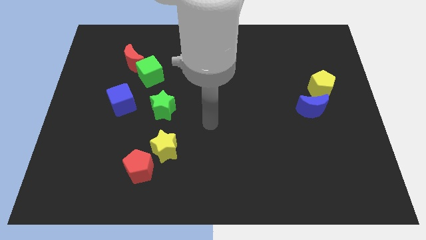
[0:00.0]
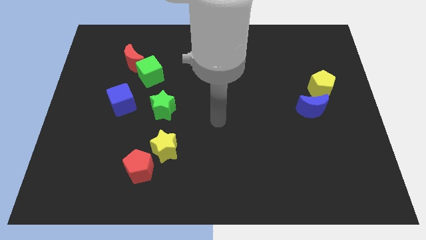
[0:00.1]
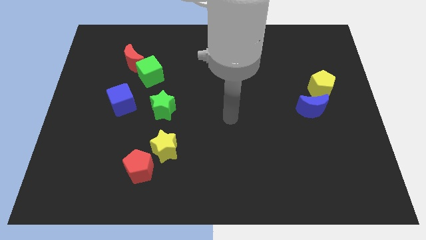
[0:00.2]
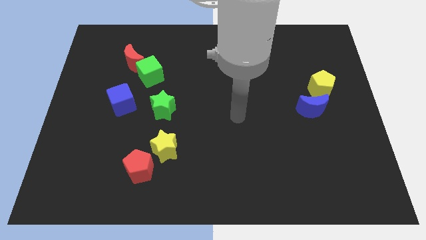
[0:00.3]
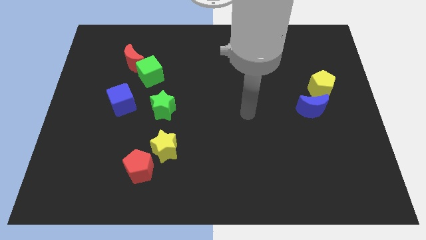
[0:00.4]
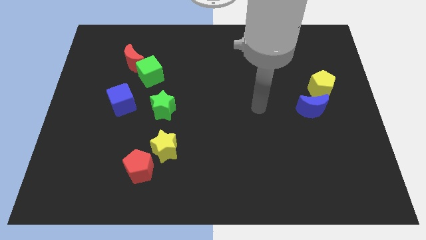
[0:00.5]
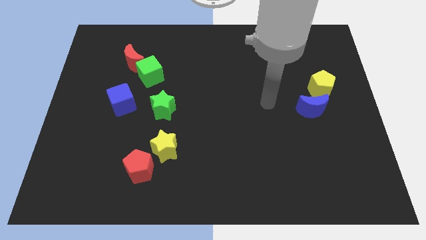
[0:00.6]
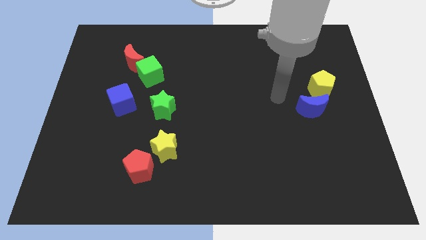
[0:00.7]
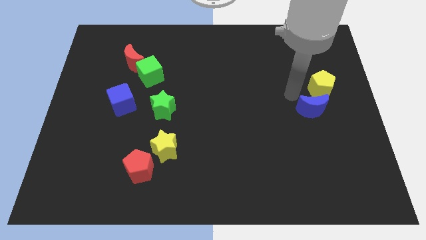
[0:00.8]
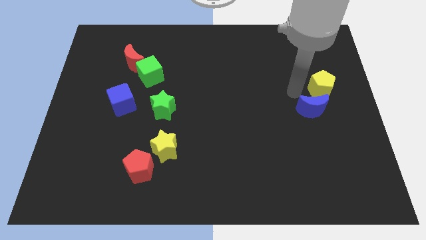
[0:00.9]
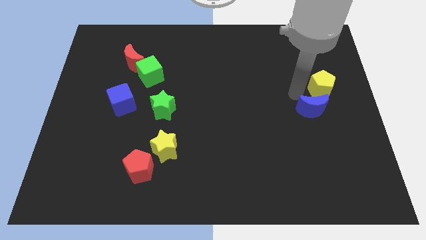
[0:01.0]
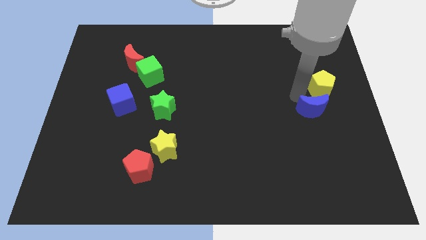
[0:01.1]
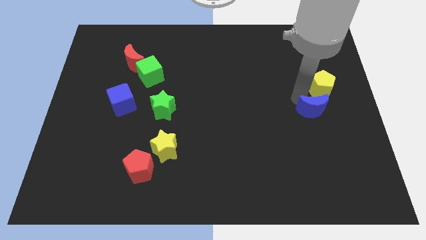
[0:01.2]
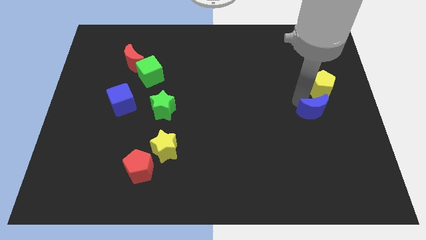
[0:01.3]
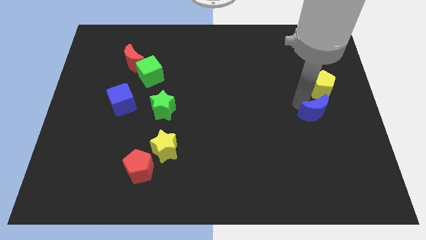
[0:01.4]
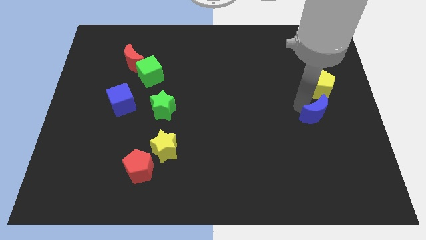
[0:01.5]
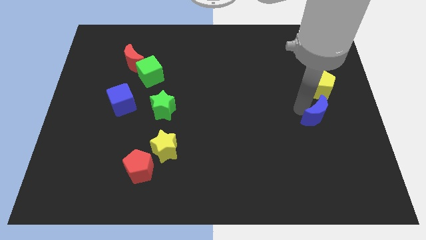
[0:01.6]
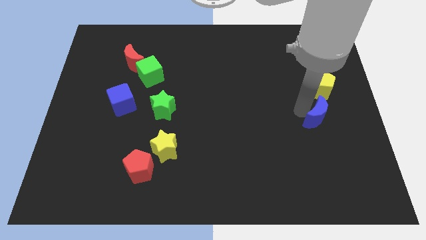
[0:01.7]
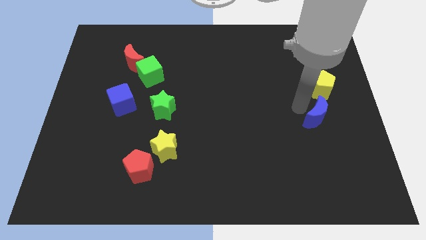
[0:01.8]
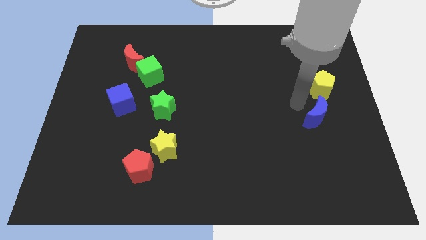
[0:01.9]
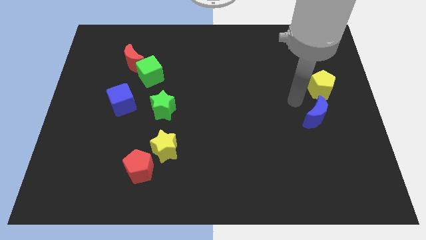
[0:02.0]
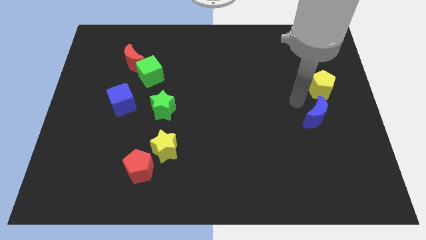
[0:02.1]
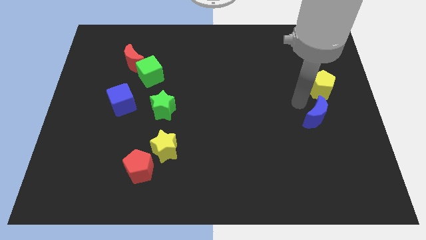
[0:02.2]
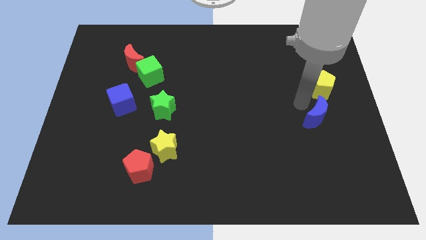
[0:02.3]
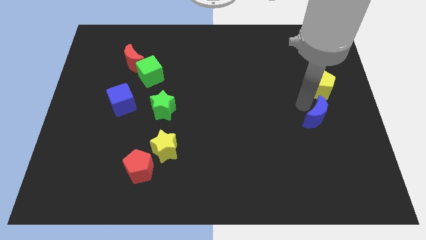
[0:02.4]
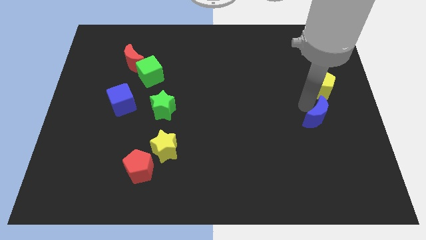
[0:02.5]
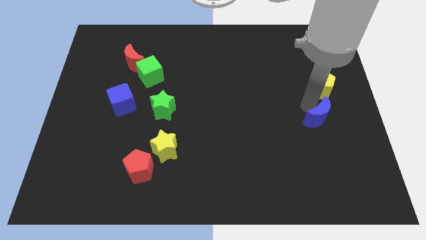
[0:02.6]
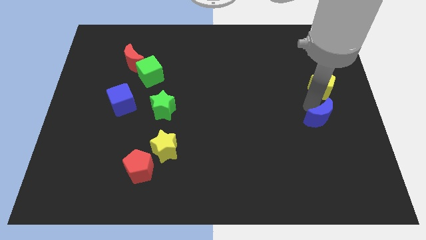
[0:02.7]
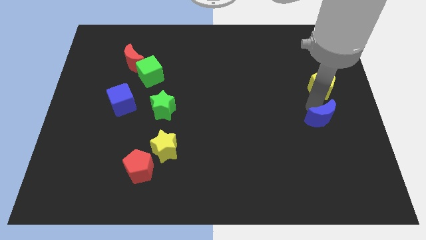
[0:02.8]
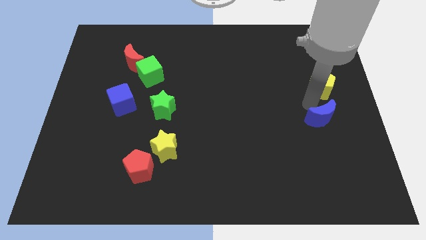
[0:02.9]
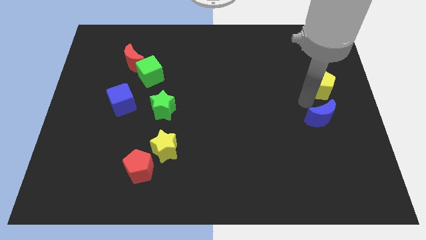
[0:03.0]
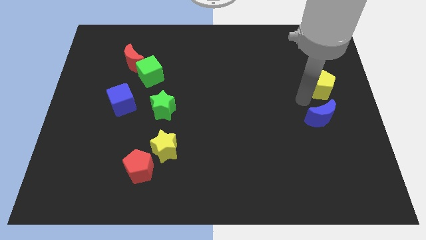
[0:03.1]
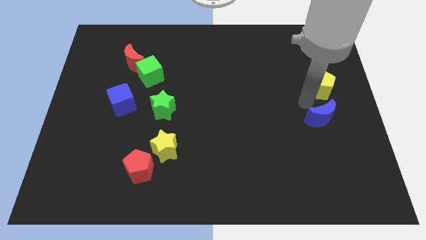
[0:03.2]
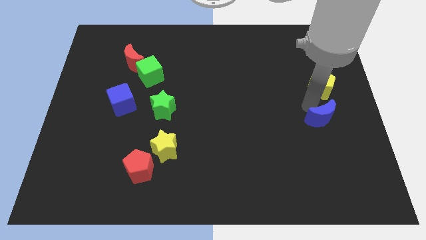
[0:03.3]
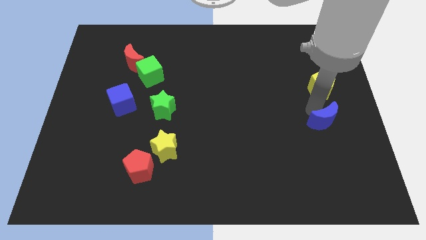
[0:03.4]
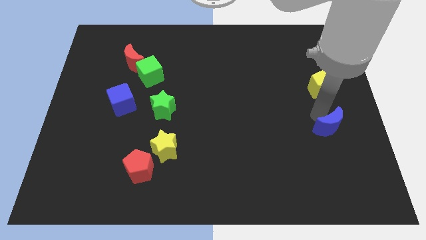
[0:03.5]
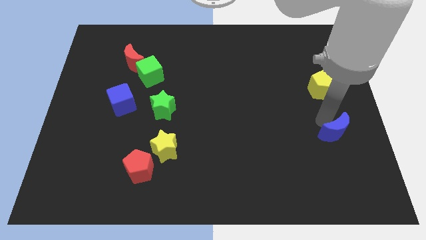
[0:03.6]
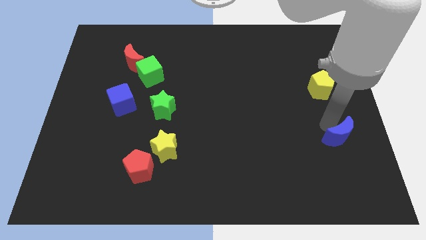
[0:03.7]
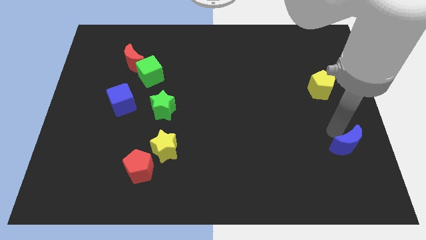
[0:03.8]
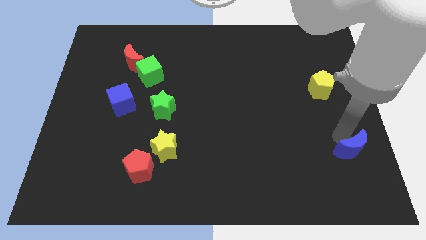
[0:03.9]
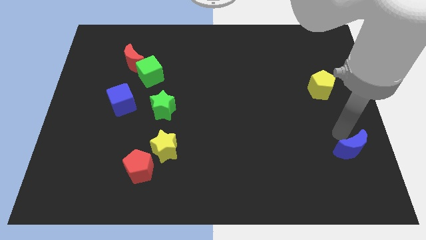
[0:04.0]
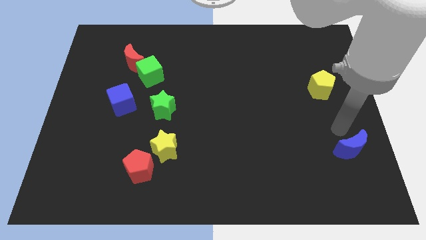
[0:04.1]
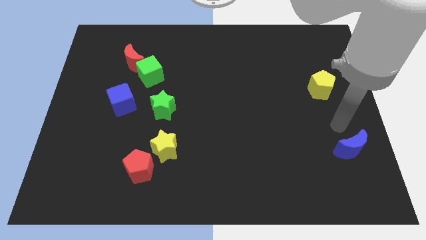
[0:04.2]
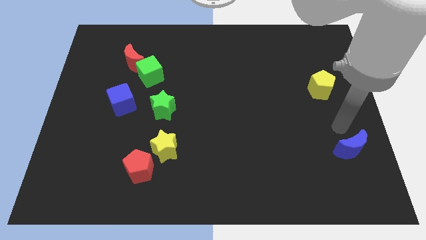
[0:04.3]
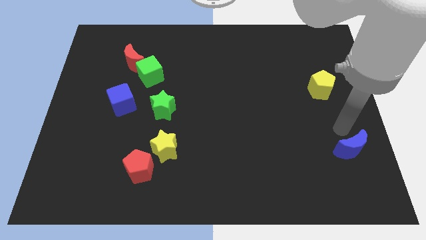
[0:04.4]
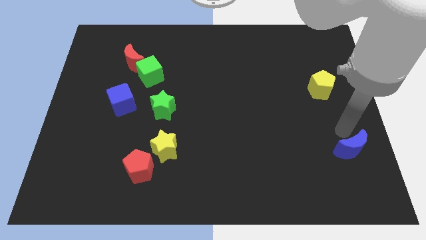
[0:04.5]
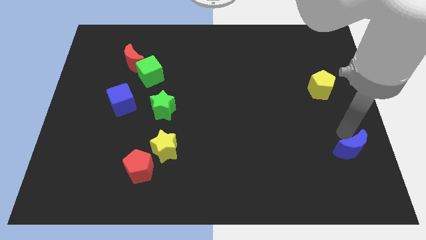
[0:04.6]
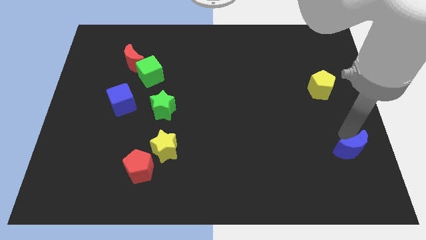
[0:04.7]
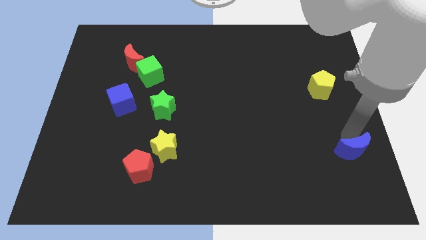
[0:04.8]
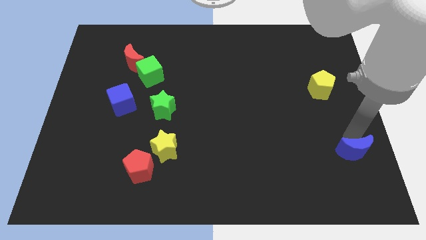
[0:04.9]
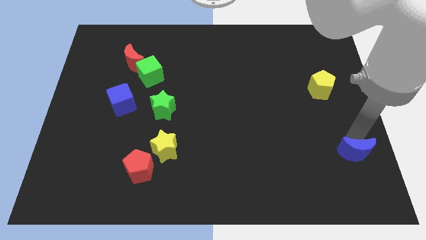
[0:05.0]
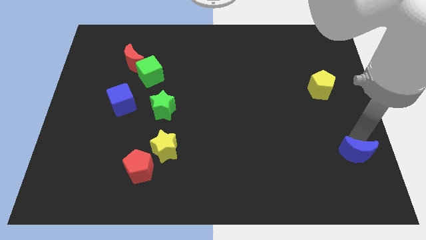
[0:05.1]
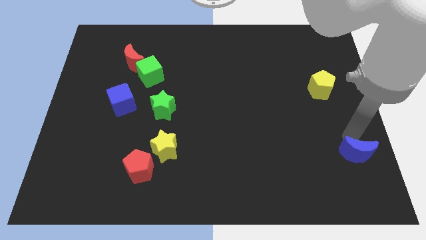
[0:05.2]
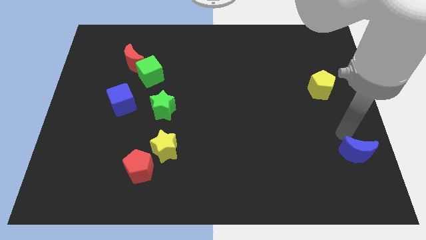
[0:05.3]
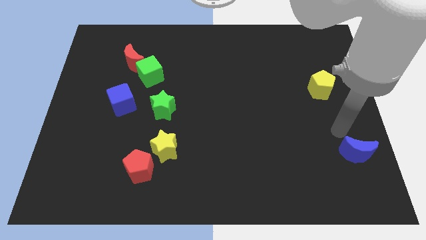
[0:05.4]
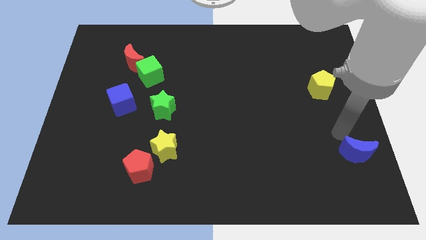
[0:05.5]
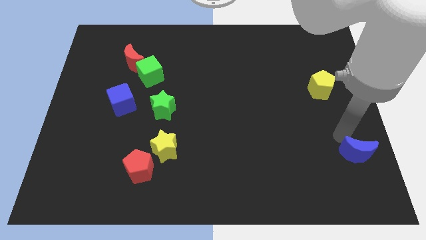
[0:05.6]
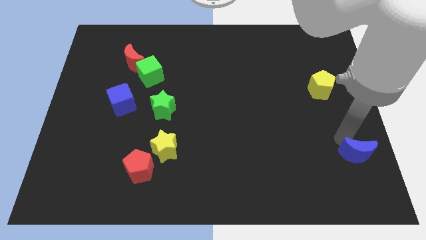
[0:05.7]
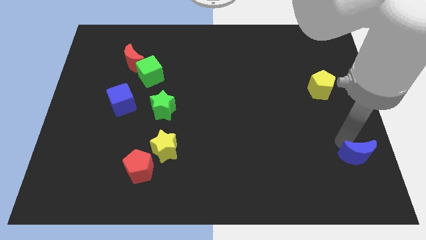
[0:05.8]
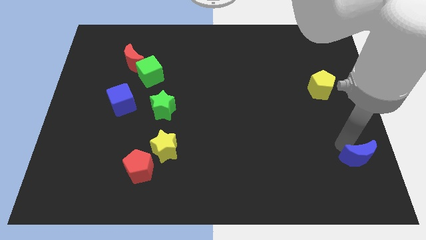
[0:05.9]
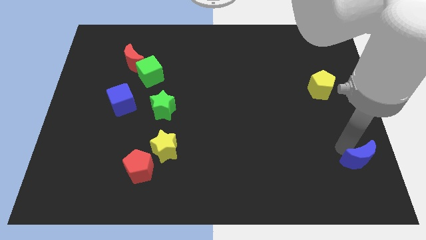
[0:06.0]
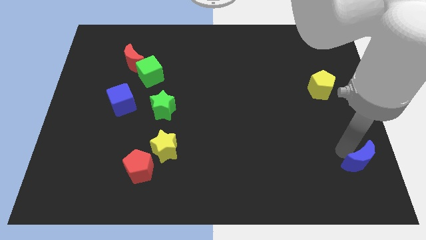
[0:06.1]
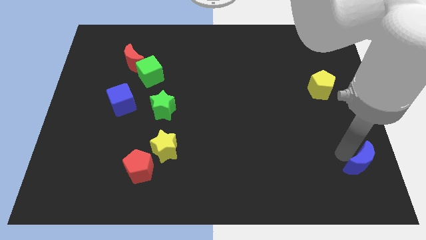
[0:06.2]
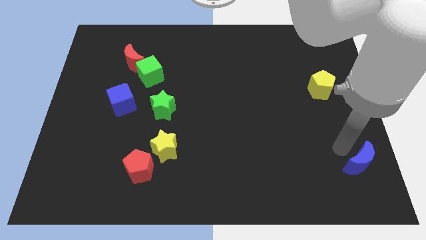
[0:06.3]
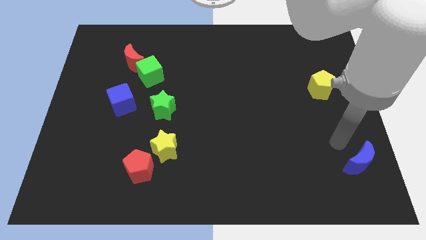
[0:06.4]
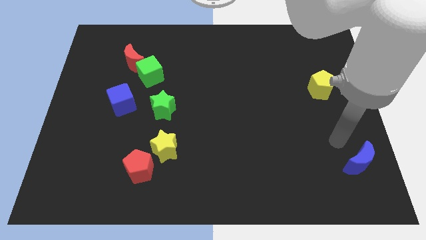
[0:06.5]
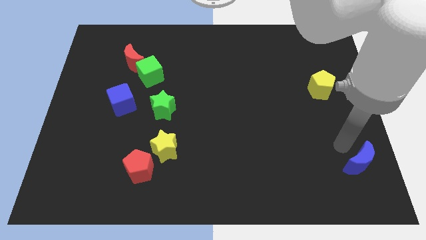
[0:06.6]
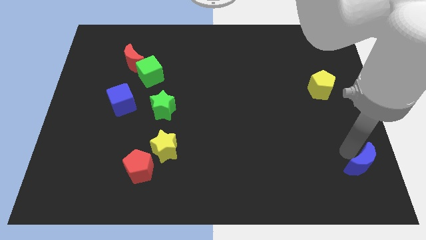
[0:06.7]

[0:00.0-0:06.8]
move the blue moon to the bottom right of the board
